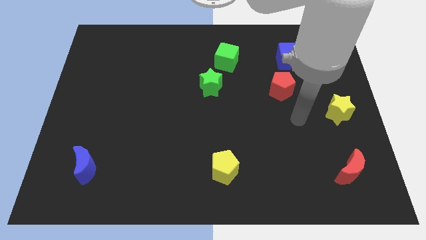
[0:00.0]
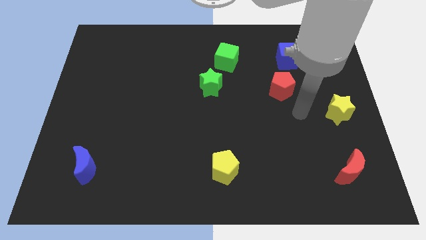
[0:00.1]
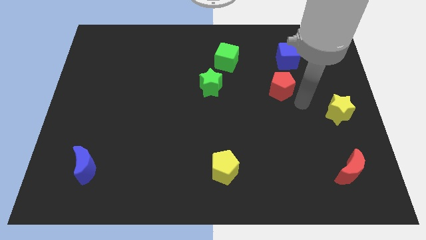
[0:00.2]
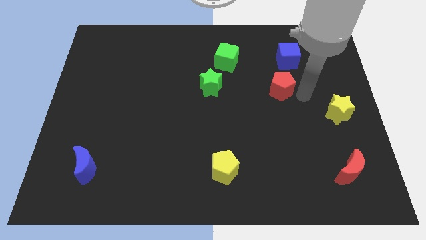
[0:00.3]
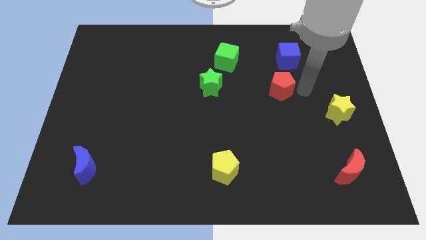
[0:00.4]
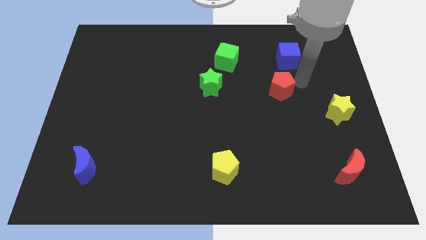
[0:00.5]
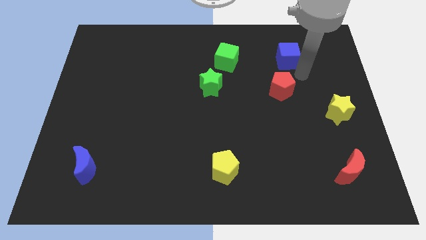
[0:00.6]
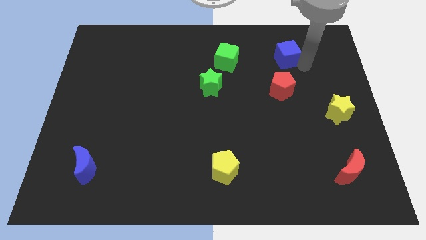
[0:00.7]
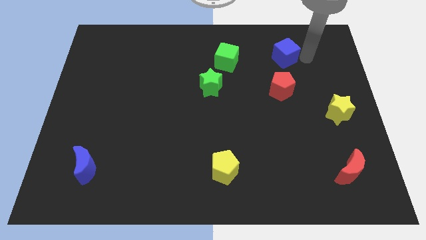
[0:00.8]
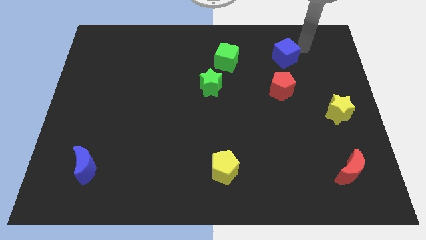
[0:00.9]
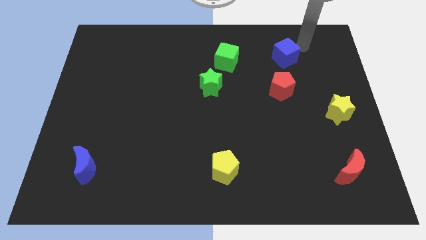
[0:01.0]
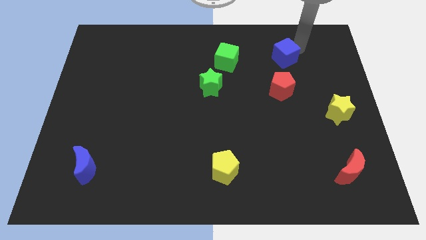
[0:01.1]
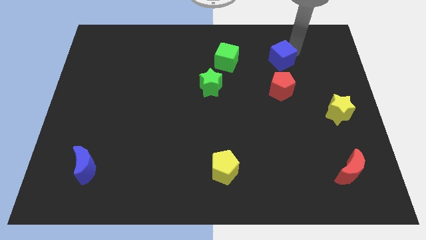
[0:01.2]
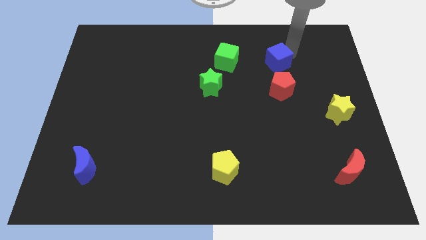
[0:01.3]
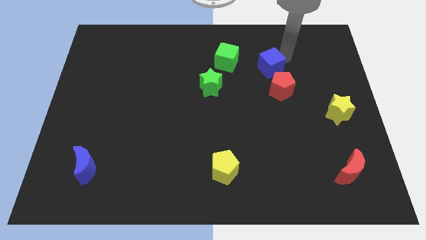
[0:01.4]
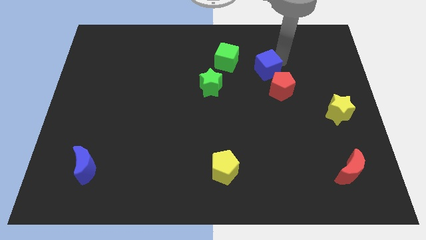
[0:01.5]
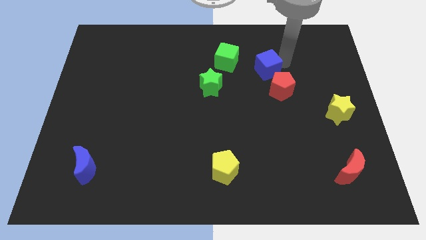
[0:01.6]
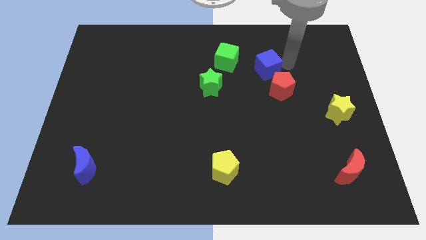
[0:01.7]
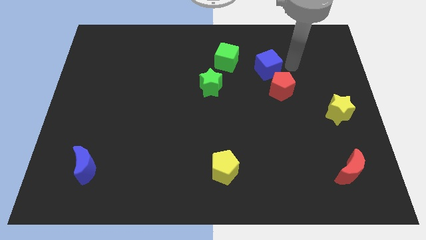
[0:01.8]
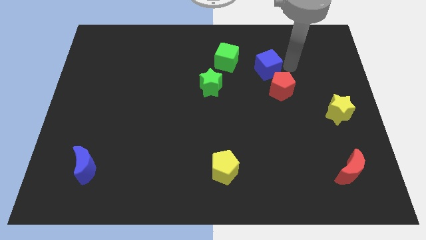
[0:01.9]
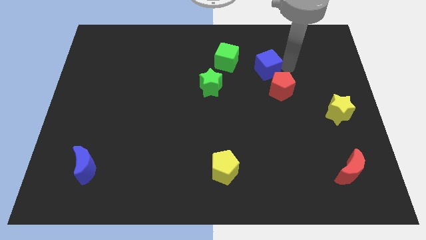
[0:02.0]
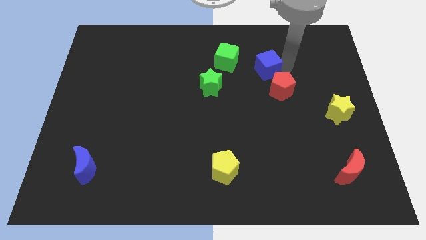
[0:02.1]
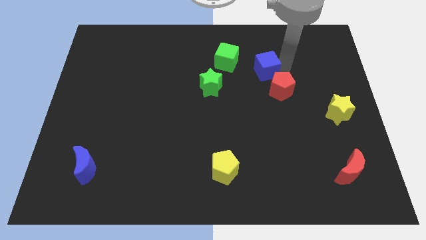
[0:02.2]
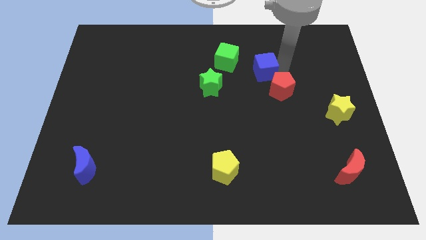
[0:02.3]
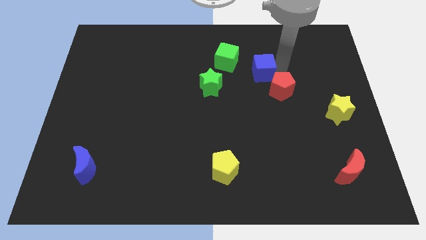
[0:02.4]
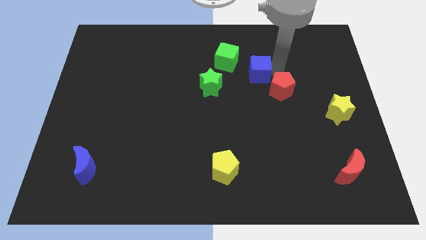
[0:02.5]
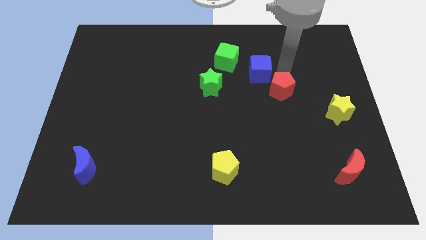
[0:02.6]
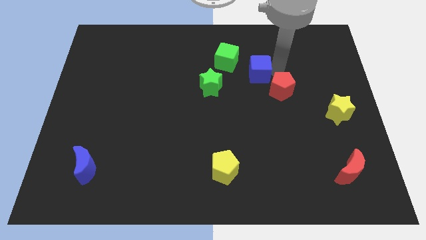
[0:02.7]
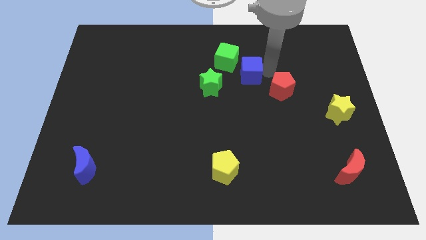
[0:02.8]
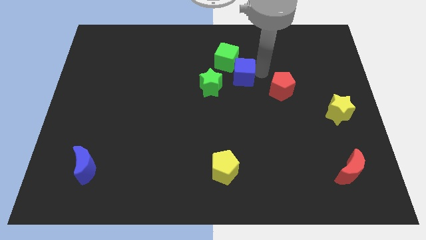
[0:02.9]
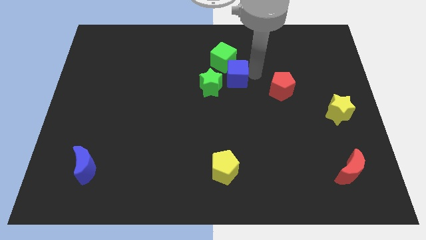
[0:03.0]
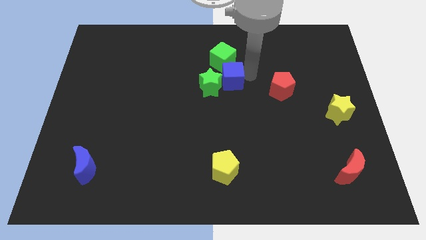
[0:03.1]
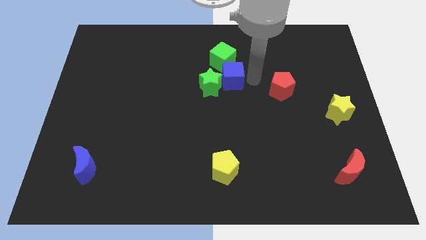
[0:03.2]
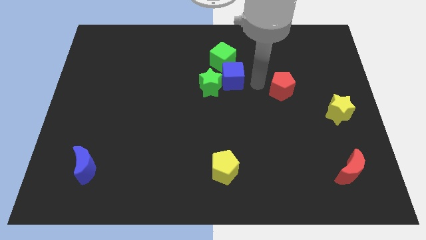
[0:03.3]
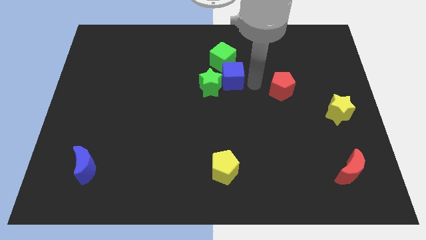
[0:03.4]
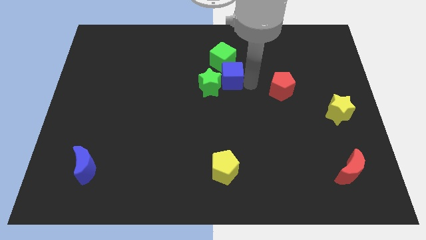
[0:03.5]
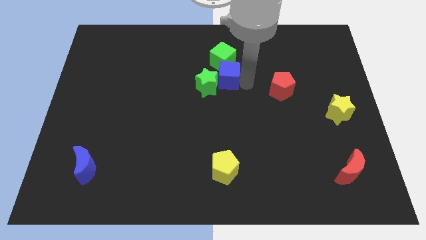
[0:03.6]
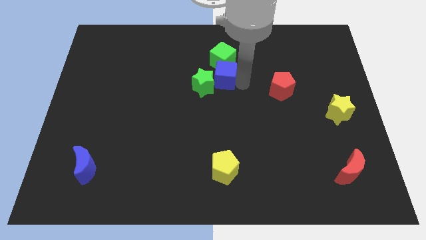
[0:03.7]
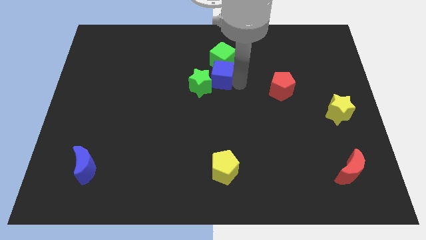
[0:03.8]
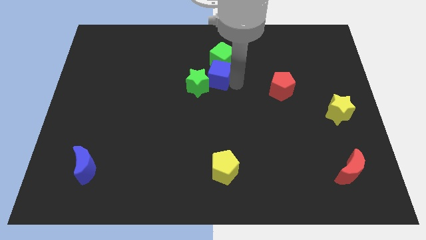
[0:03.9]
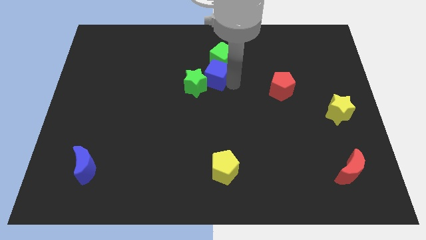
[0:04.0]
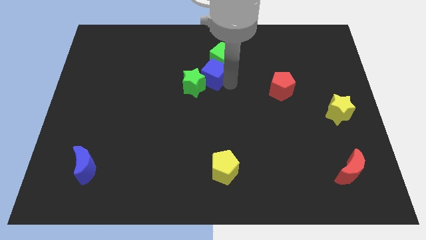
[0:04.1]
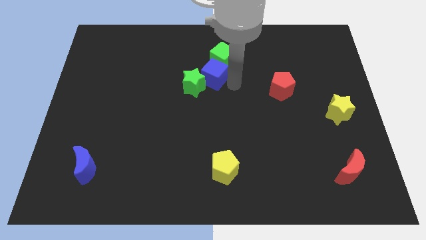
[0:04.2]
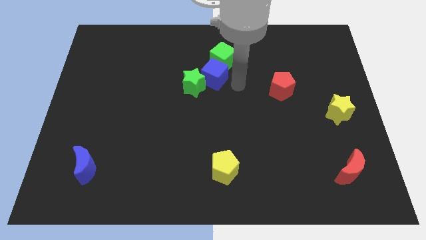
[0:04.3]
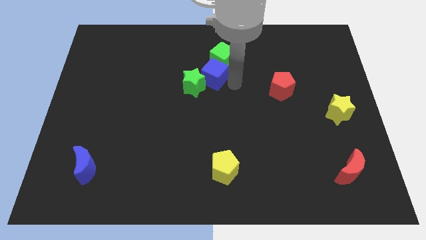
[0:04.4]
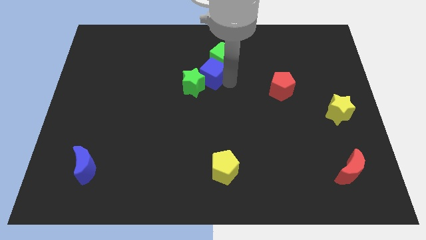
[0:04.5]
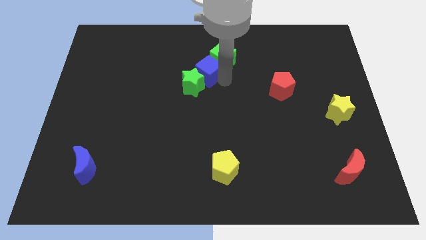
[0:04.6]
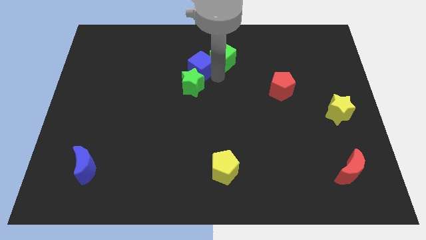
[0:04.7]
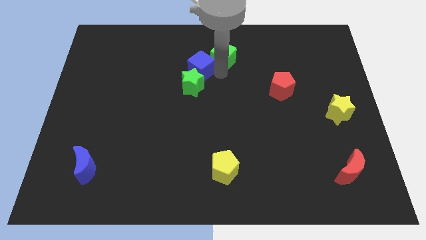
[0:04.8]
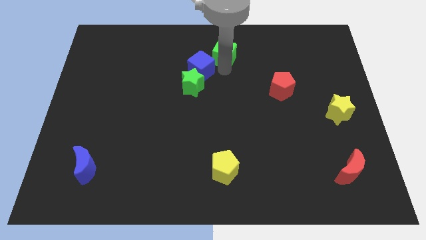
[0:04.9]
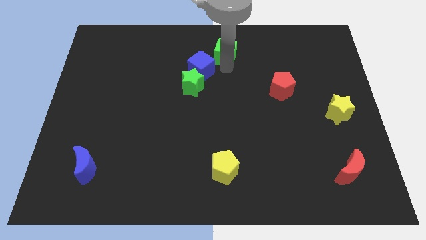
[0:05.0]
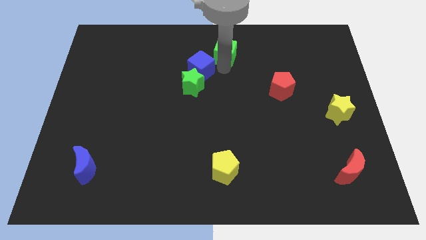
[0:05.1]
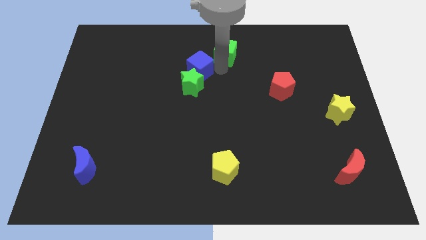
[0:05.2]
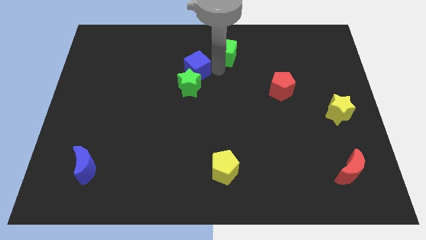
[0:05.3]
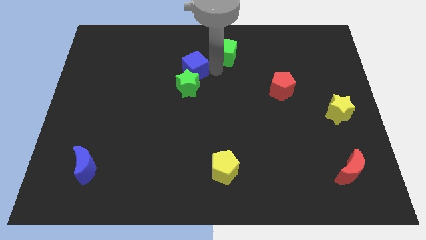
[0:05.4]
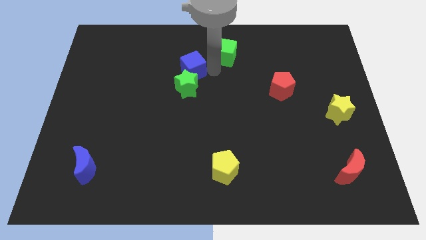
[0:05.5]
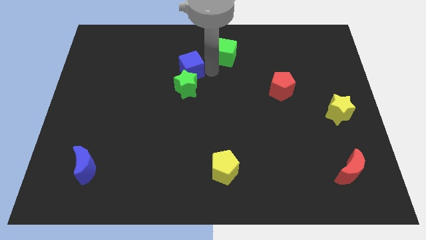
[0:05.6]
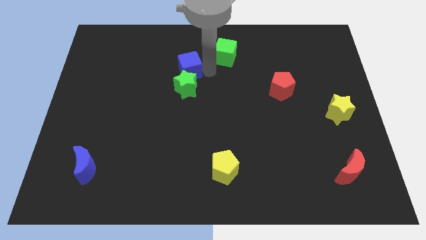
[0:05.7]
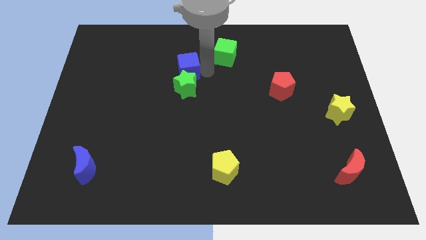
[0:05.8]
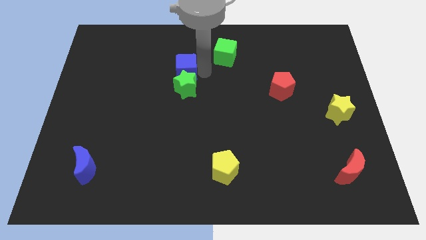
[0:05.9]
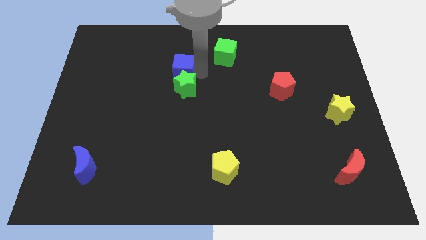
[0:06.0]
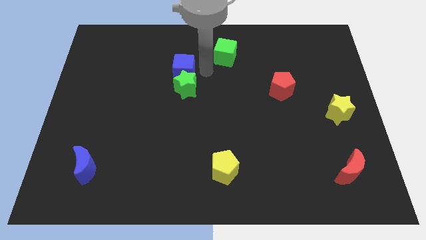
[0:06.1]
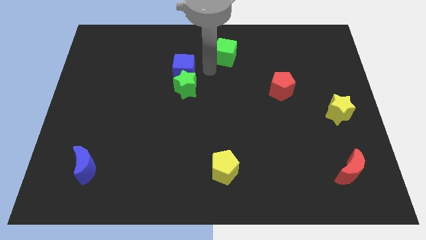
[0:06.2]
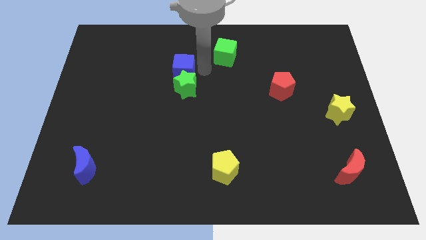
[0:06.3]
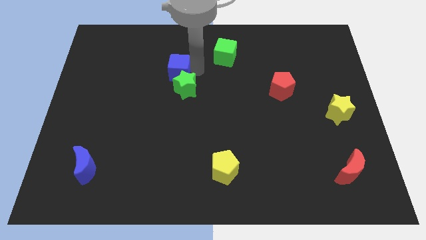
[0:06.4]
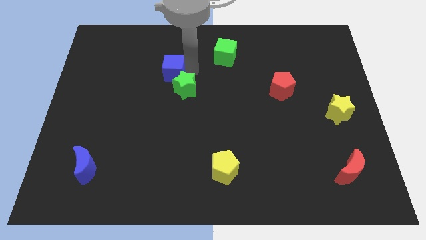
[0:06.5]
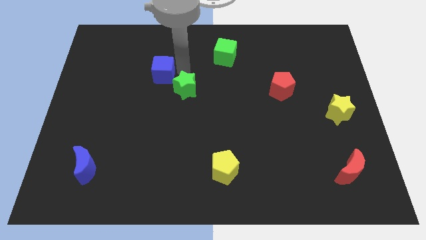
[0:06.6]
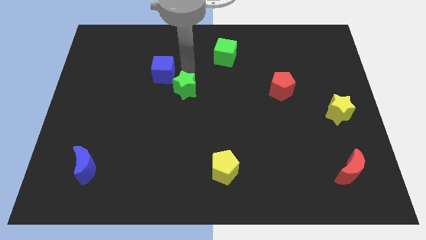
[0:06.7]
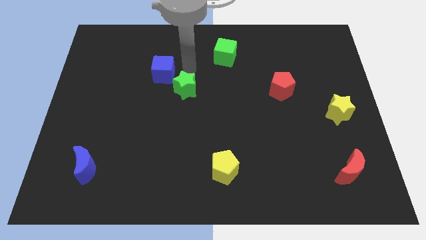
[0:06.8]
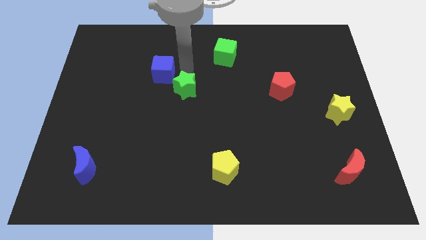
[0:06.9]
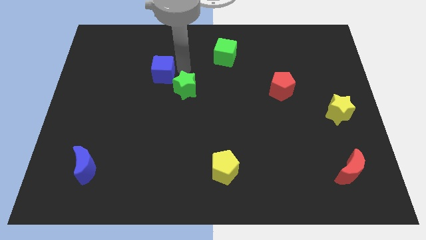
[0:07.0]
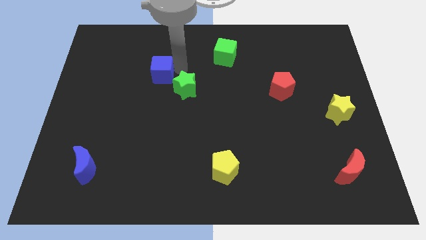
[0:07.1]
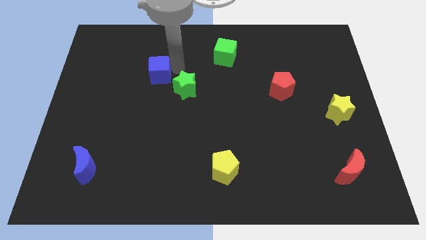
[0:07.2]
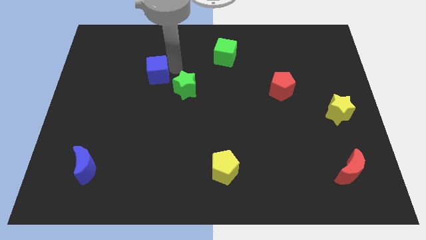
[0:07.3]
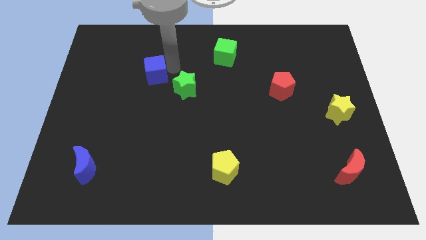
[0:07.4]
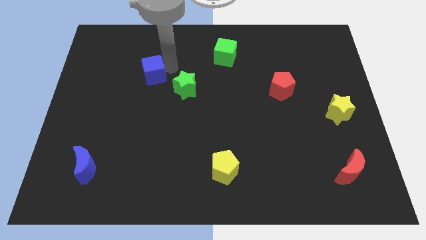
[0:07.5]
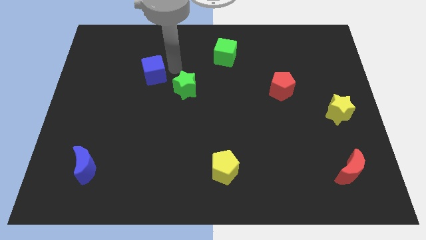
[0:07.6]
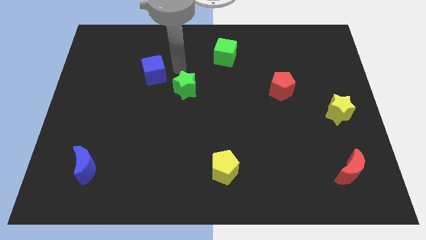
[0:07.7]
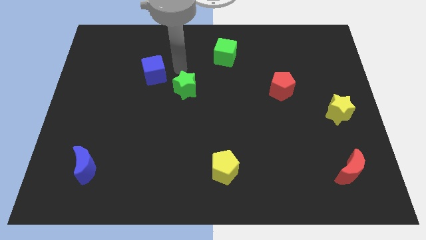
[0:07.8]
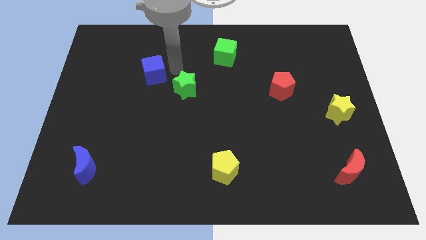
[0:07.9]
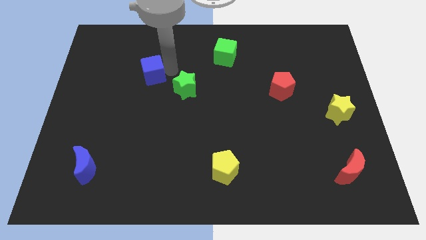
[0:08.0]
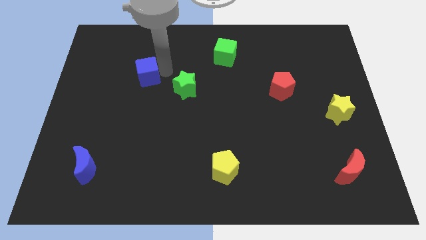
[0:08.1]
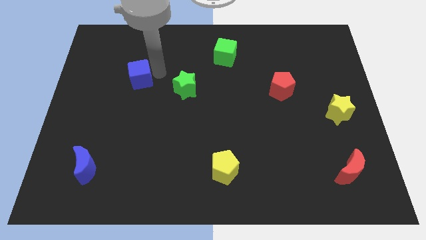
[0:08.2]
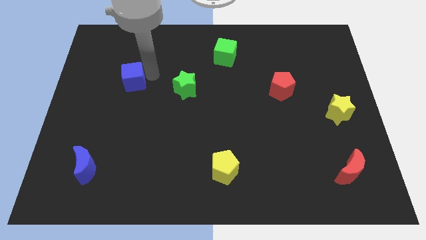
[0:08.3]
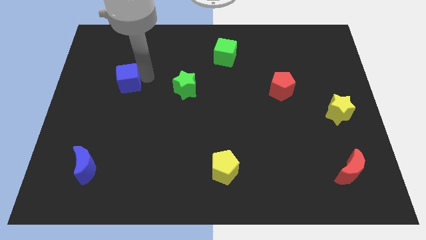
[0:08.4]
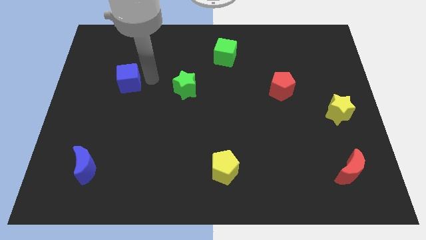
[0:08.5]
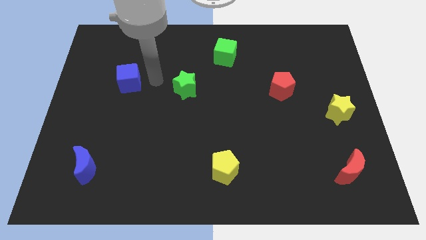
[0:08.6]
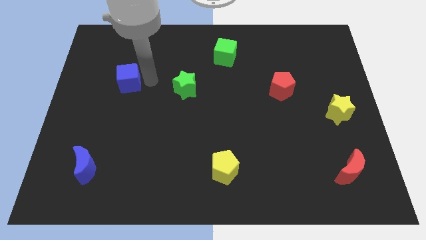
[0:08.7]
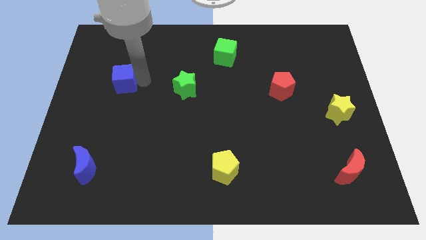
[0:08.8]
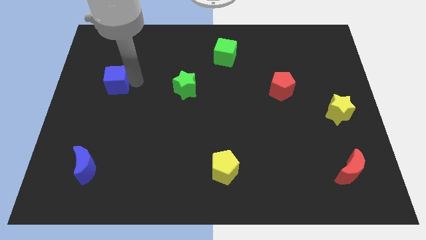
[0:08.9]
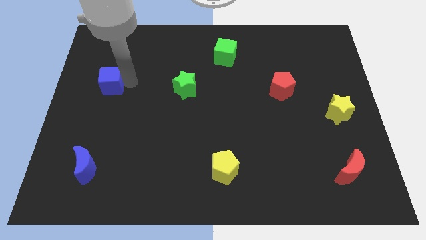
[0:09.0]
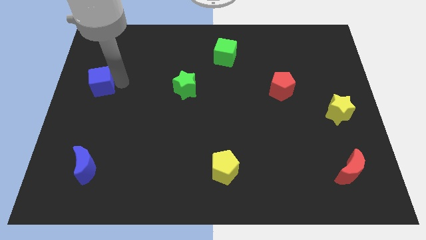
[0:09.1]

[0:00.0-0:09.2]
put the blue cube to the center left
